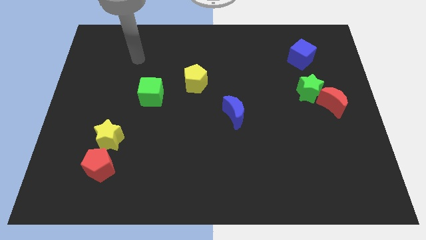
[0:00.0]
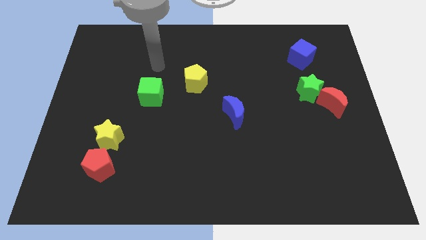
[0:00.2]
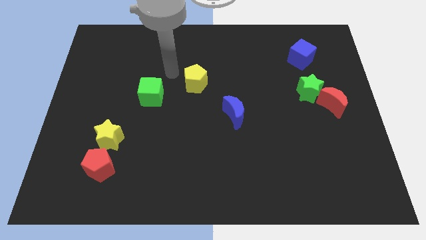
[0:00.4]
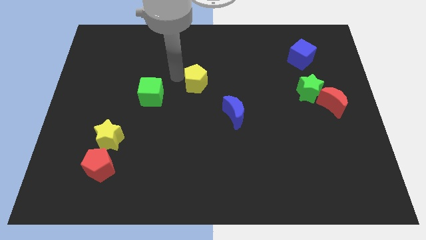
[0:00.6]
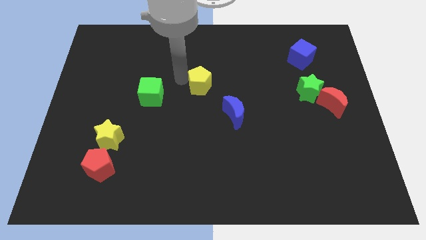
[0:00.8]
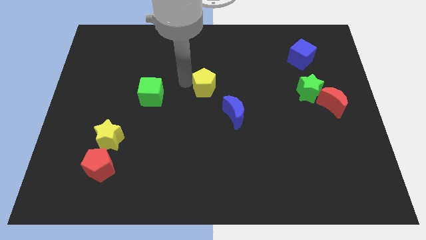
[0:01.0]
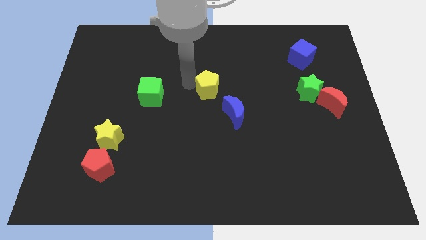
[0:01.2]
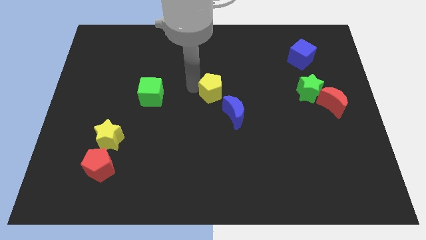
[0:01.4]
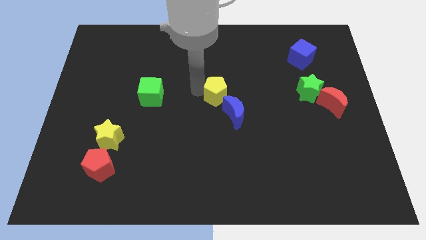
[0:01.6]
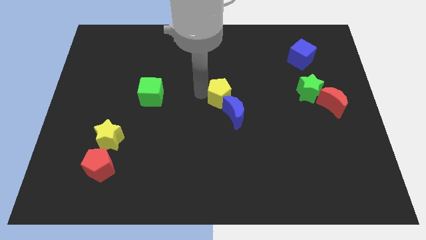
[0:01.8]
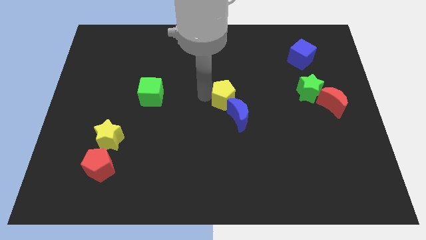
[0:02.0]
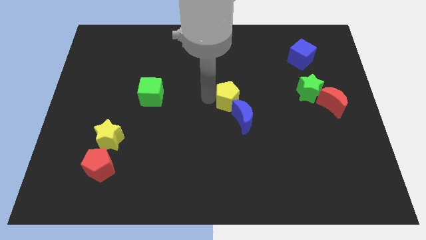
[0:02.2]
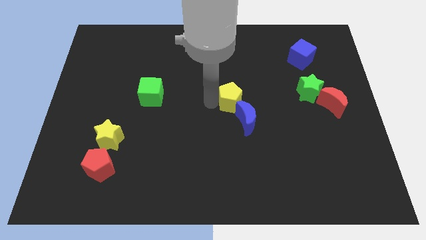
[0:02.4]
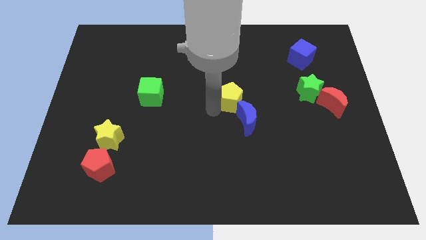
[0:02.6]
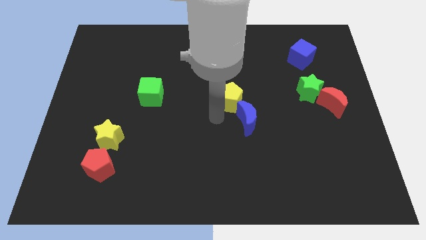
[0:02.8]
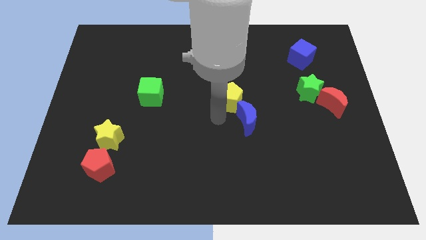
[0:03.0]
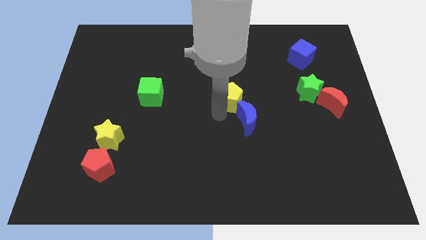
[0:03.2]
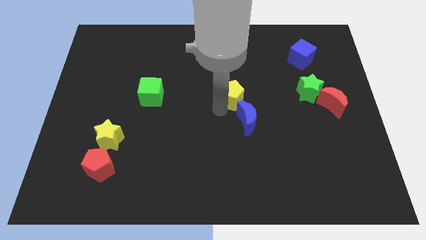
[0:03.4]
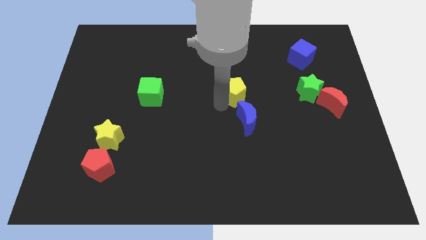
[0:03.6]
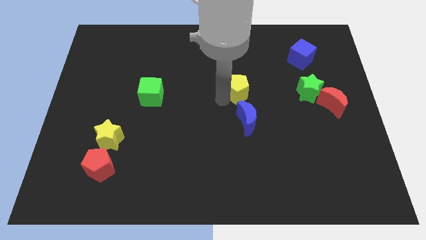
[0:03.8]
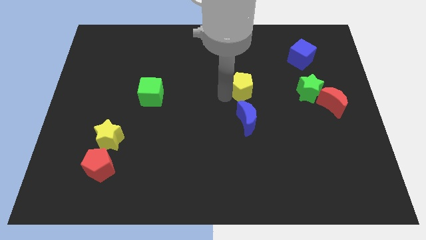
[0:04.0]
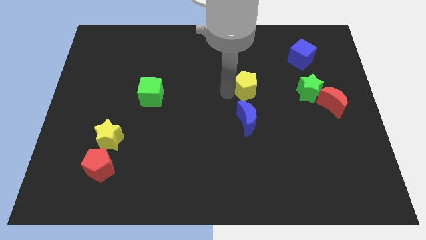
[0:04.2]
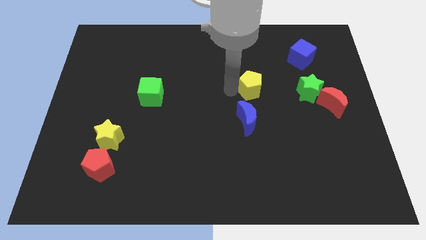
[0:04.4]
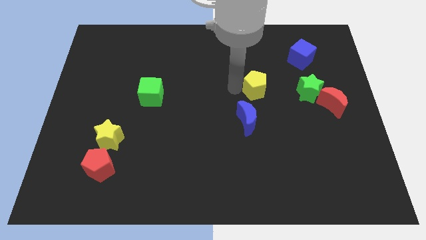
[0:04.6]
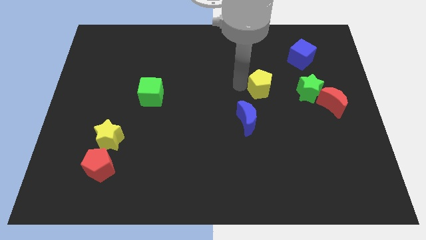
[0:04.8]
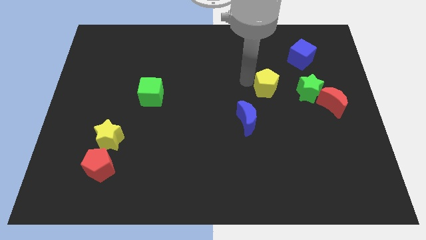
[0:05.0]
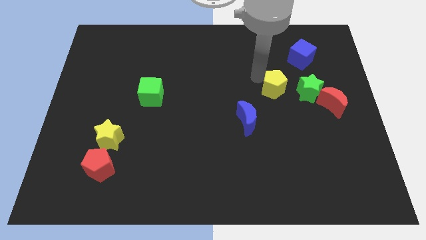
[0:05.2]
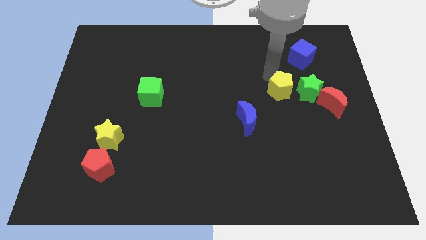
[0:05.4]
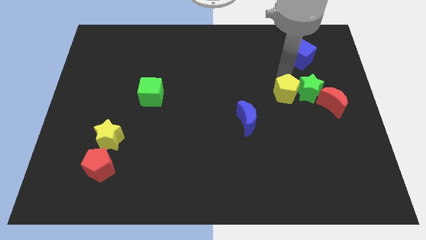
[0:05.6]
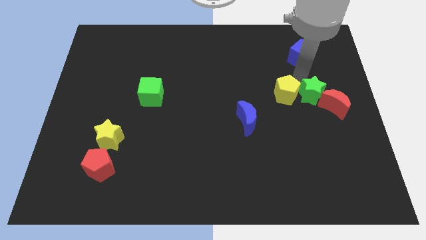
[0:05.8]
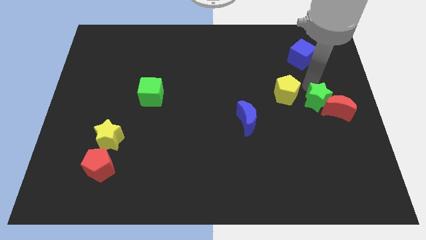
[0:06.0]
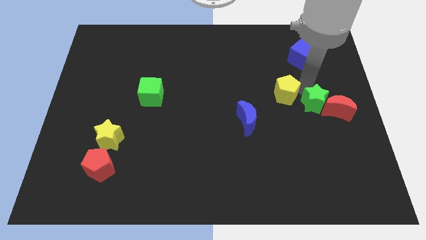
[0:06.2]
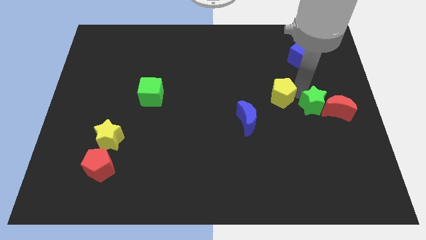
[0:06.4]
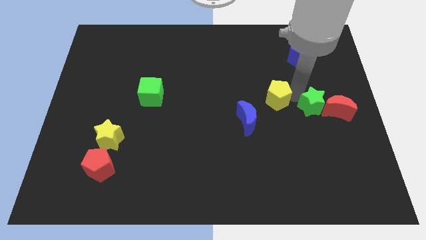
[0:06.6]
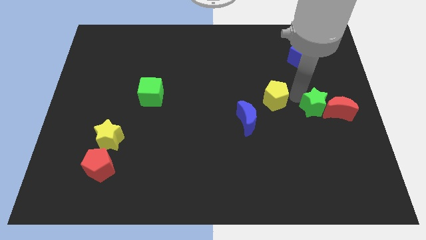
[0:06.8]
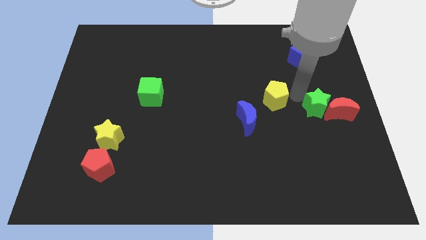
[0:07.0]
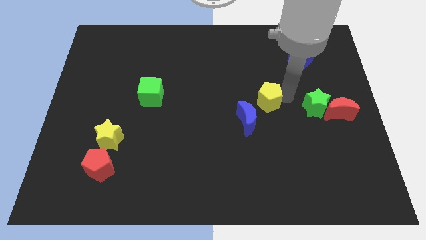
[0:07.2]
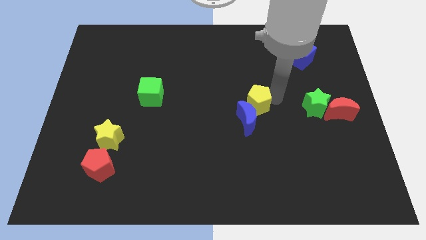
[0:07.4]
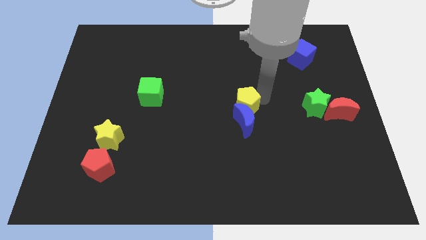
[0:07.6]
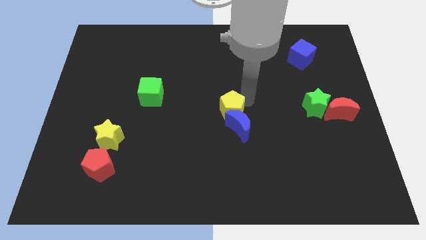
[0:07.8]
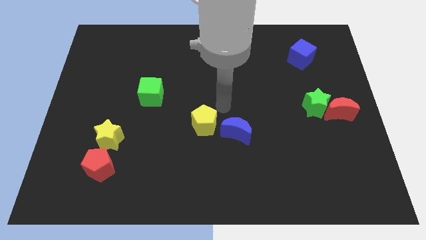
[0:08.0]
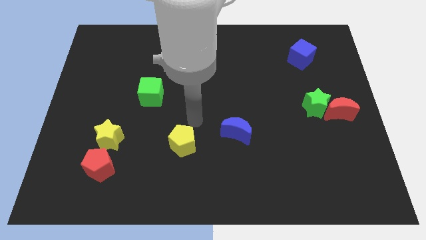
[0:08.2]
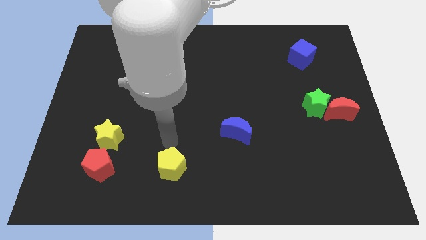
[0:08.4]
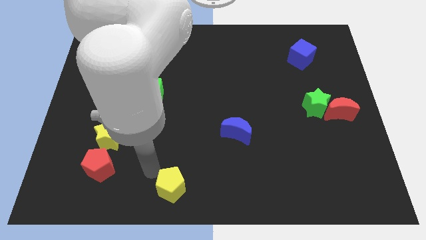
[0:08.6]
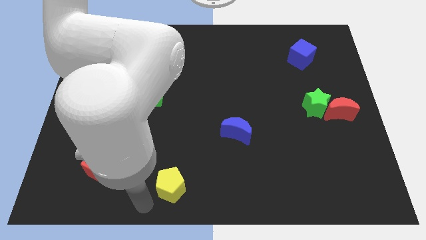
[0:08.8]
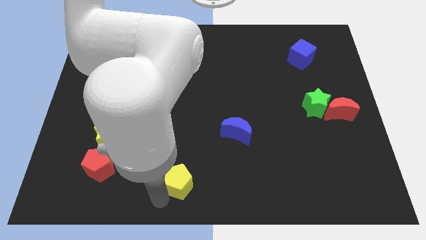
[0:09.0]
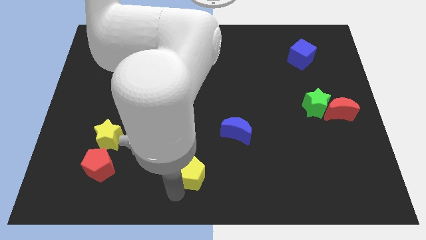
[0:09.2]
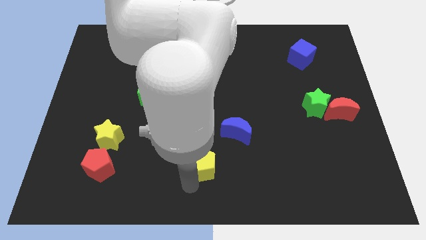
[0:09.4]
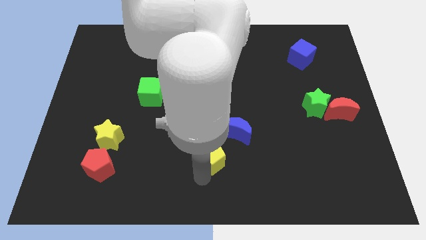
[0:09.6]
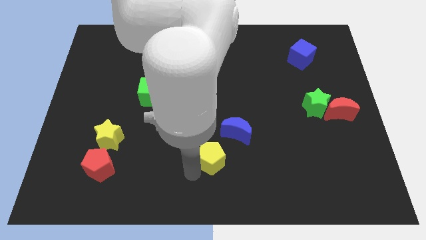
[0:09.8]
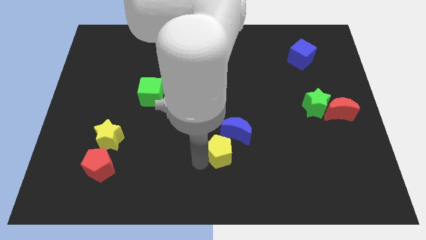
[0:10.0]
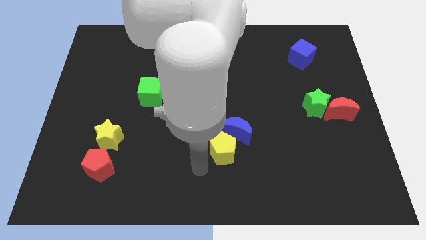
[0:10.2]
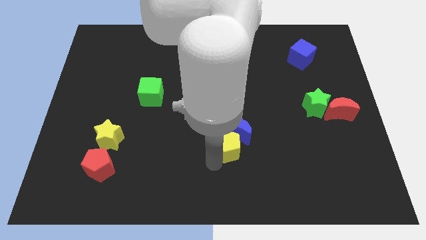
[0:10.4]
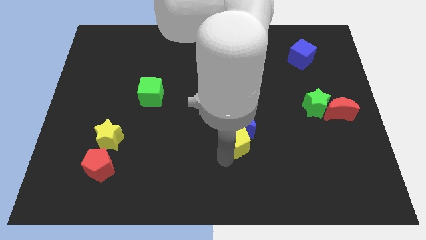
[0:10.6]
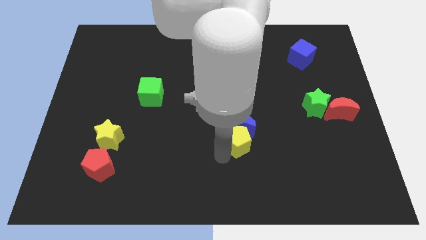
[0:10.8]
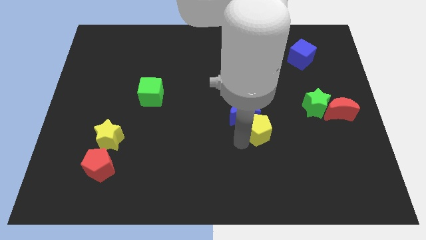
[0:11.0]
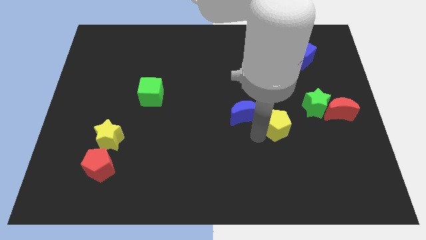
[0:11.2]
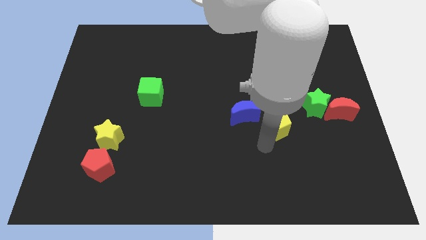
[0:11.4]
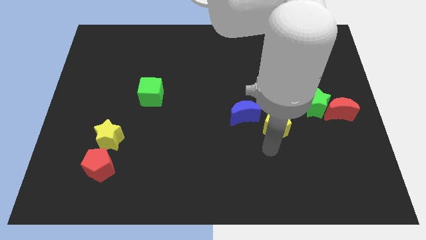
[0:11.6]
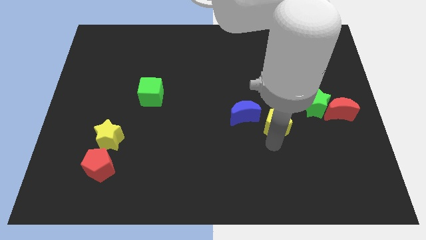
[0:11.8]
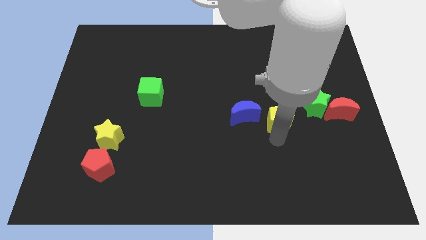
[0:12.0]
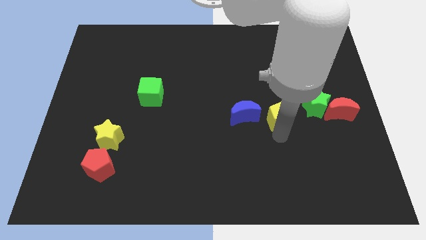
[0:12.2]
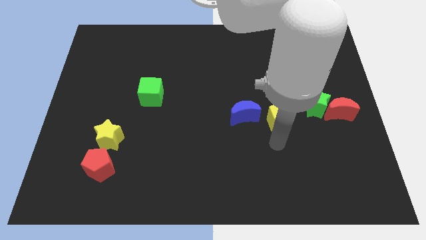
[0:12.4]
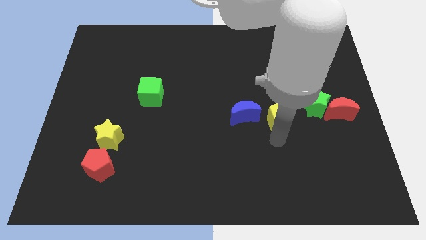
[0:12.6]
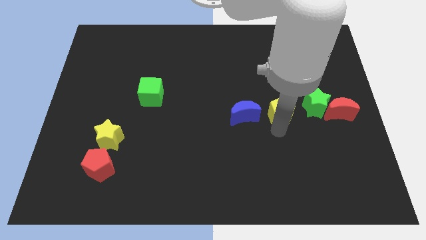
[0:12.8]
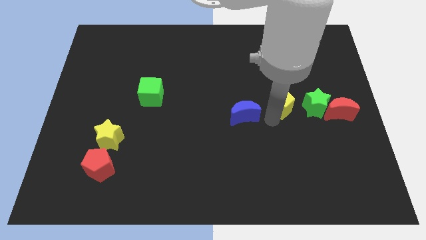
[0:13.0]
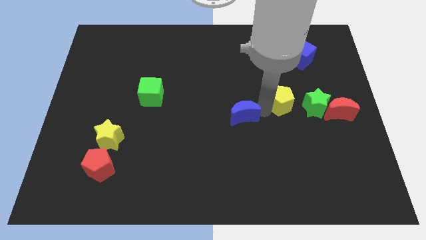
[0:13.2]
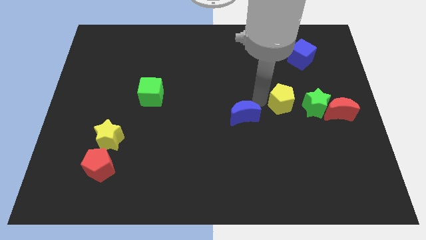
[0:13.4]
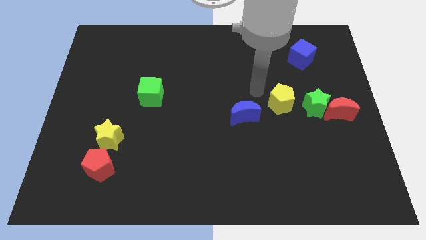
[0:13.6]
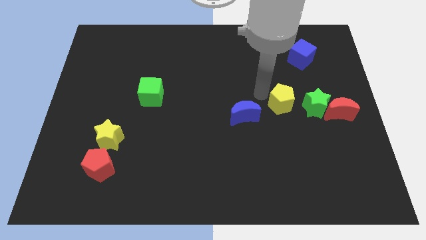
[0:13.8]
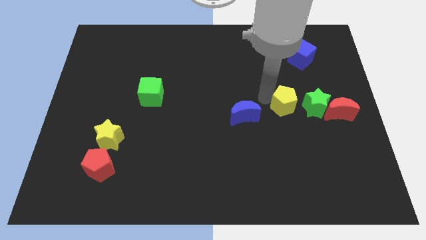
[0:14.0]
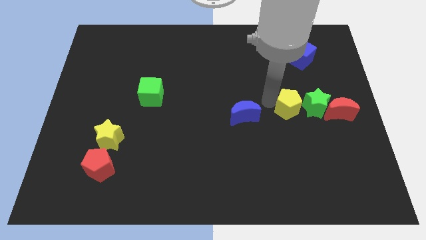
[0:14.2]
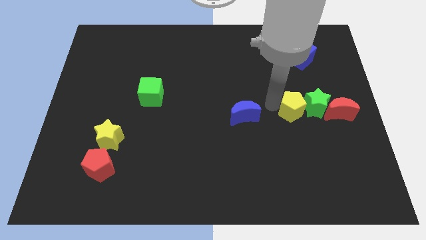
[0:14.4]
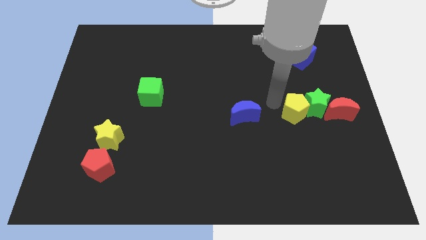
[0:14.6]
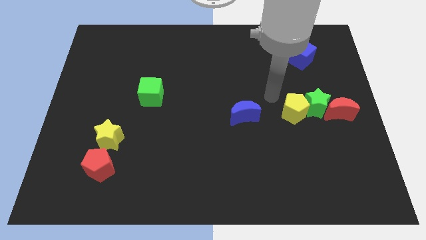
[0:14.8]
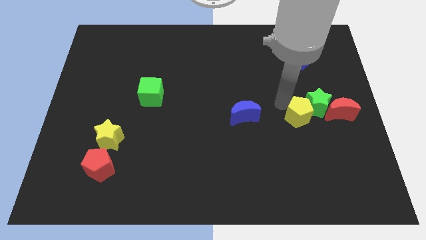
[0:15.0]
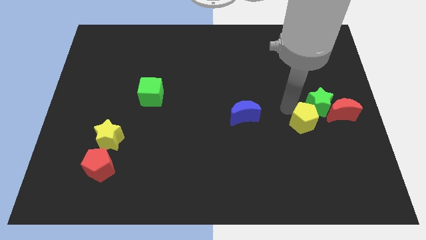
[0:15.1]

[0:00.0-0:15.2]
push the yellow pentagon to the bottom left of the red moon
